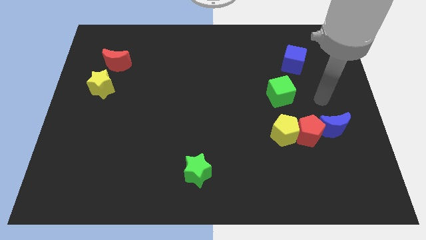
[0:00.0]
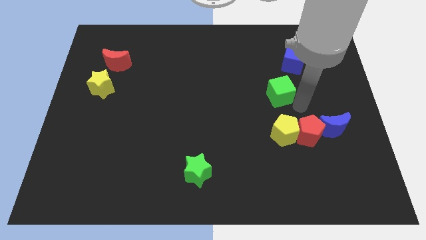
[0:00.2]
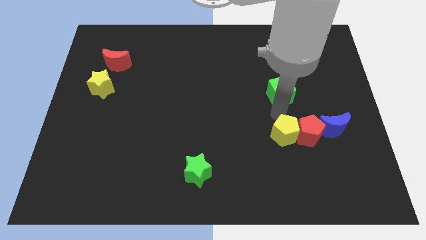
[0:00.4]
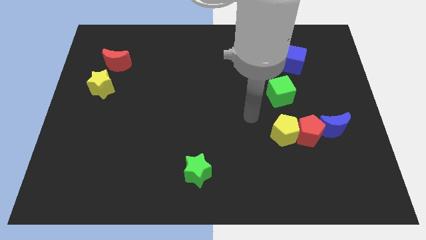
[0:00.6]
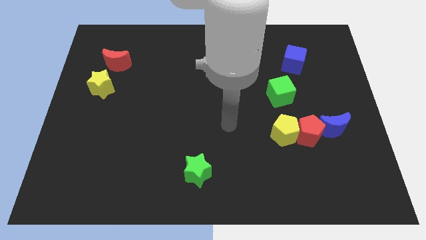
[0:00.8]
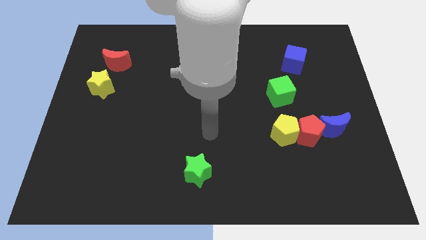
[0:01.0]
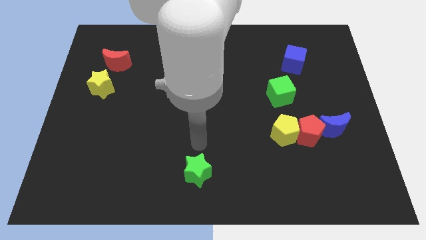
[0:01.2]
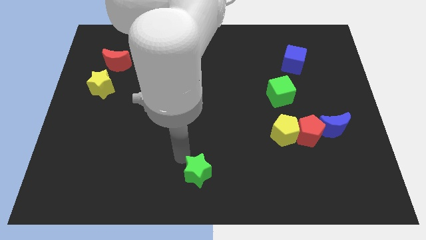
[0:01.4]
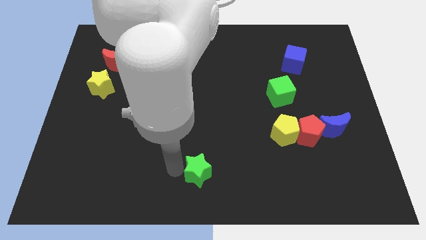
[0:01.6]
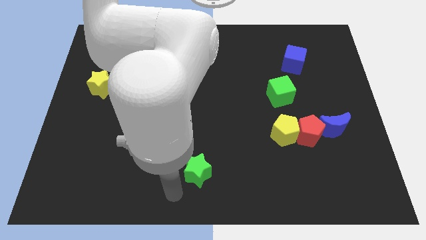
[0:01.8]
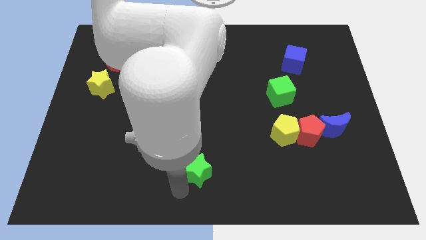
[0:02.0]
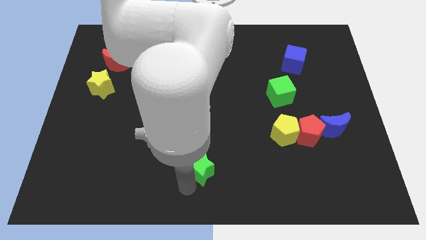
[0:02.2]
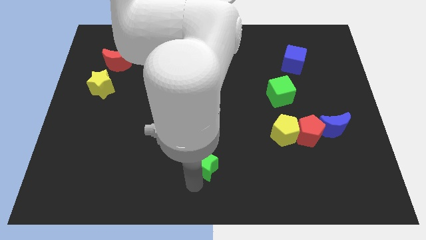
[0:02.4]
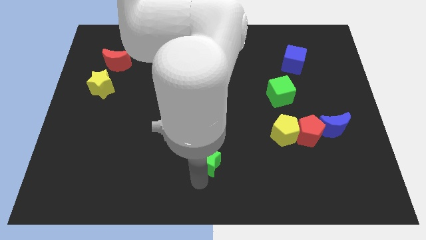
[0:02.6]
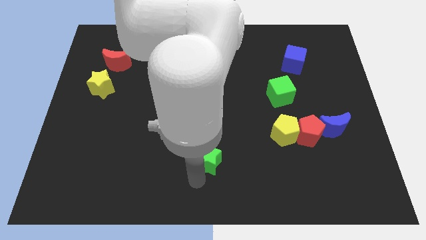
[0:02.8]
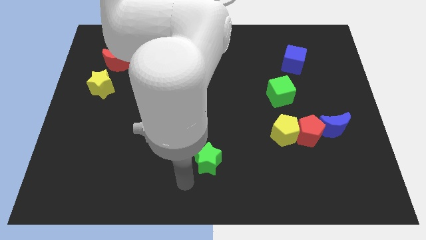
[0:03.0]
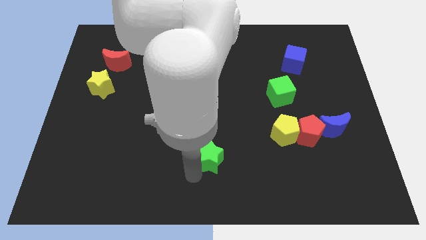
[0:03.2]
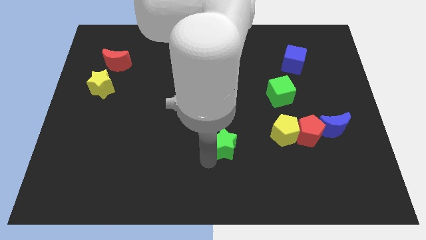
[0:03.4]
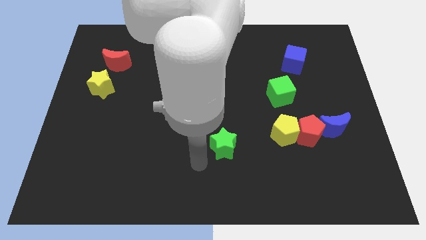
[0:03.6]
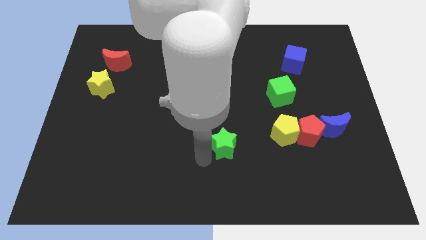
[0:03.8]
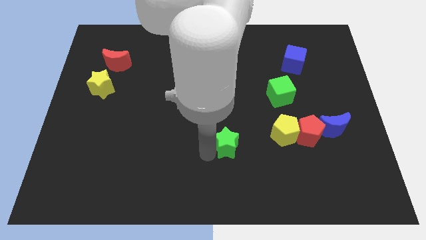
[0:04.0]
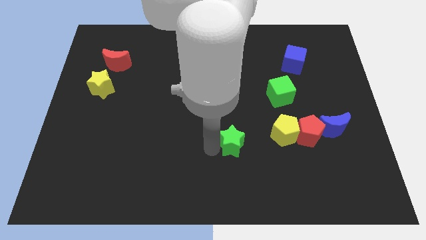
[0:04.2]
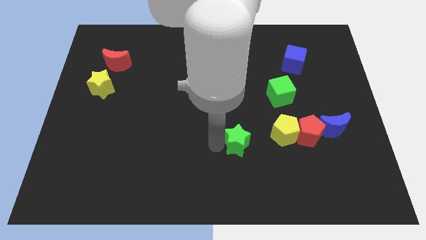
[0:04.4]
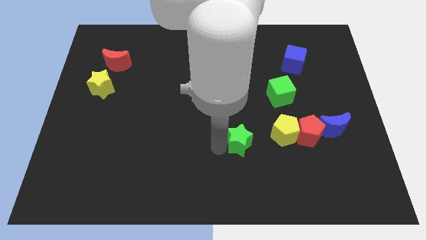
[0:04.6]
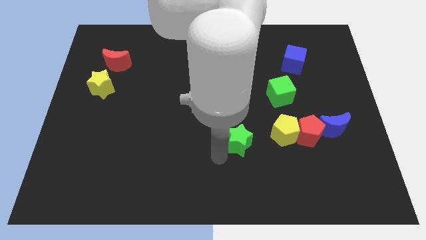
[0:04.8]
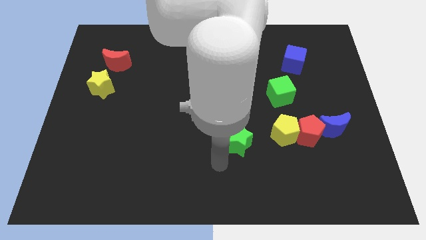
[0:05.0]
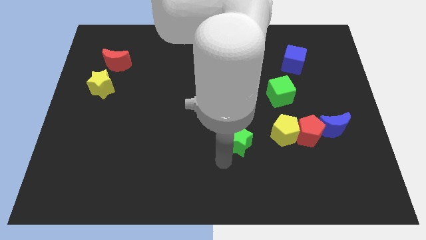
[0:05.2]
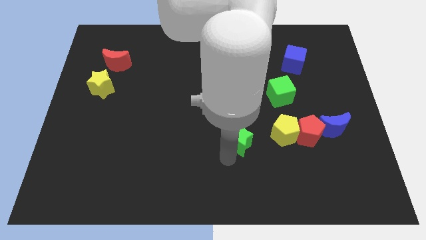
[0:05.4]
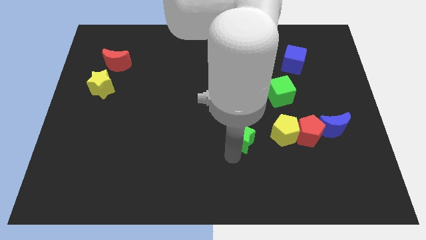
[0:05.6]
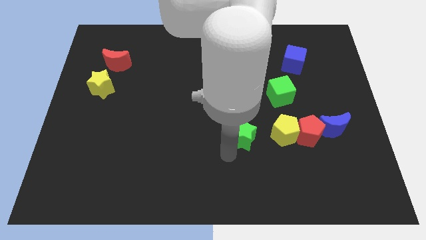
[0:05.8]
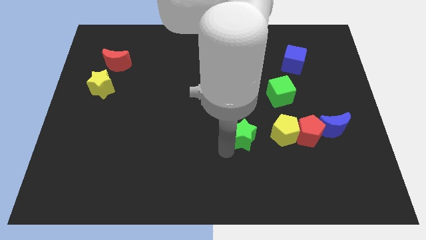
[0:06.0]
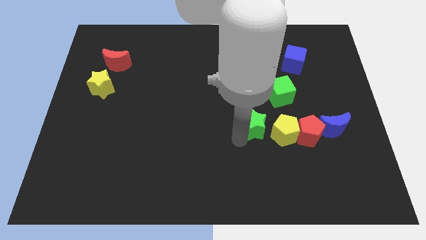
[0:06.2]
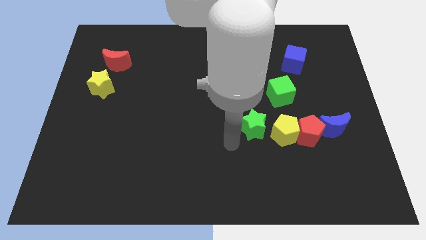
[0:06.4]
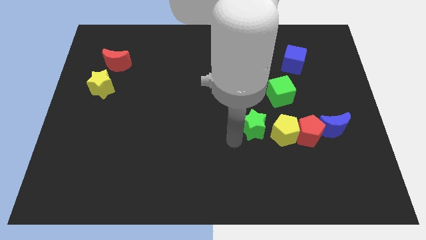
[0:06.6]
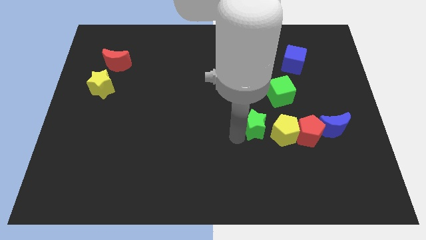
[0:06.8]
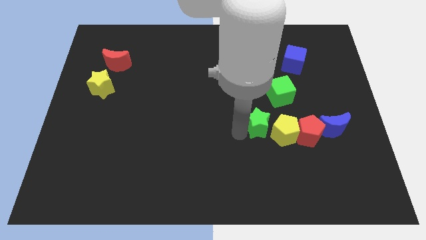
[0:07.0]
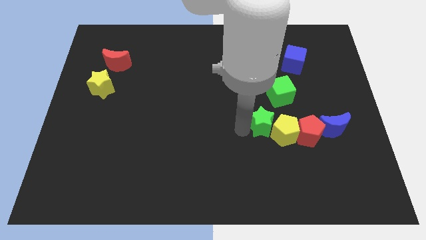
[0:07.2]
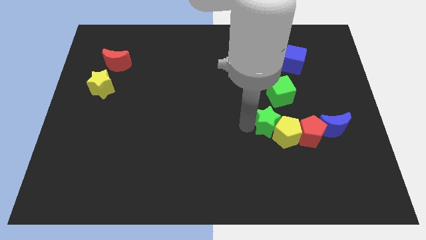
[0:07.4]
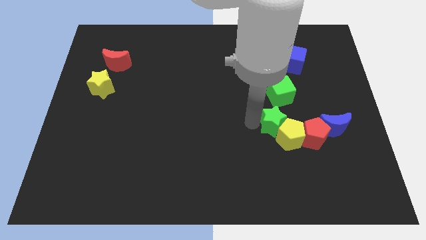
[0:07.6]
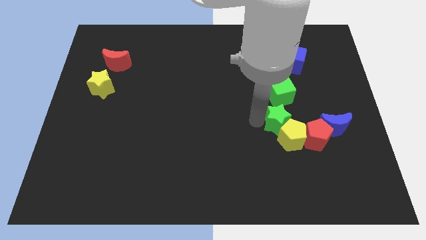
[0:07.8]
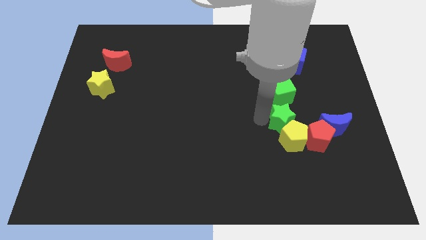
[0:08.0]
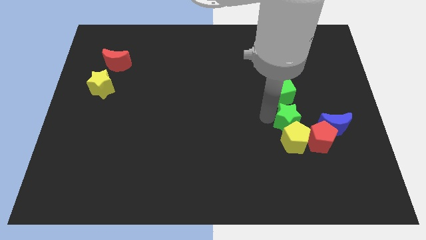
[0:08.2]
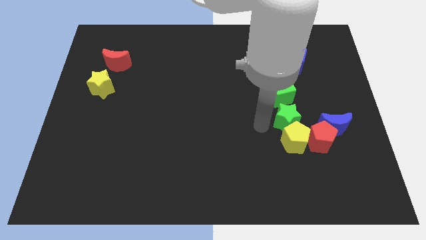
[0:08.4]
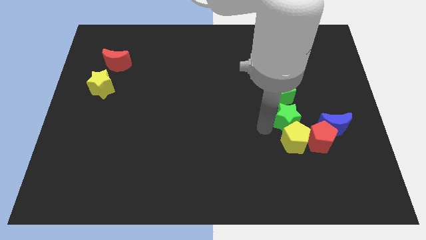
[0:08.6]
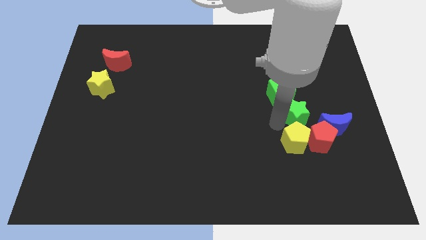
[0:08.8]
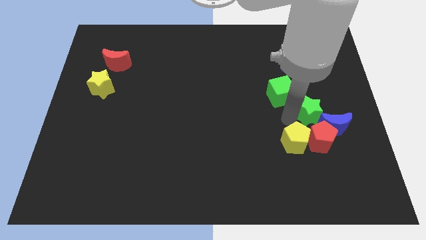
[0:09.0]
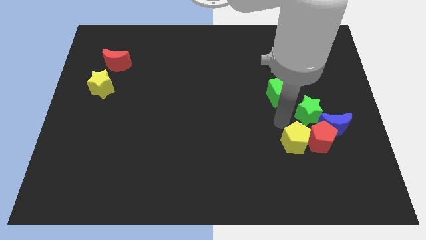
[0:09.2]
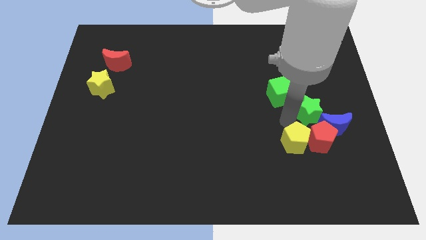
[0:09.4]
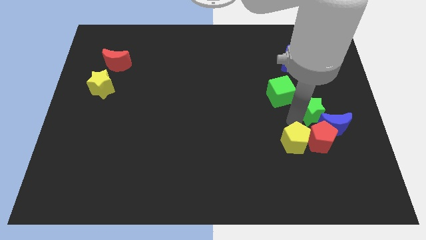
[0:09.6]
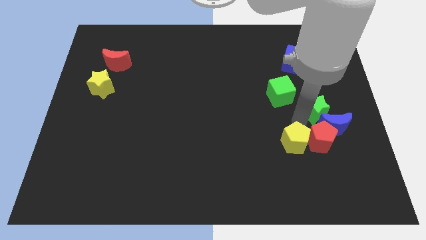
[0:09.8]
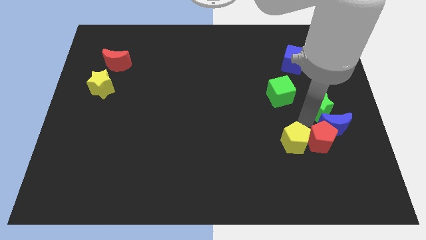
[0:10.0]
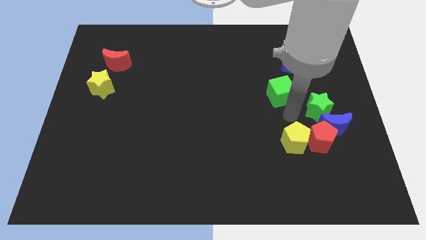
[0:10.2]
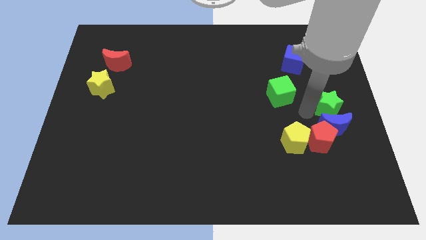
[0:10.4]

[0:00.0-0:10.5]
move the green star to the right side of the board

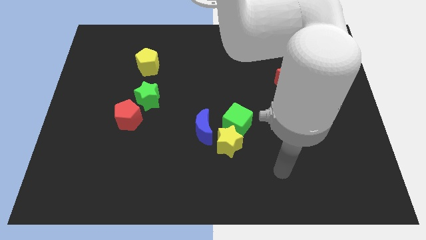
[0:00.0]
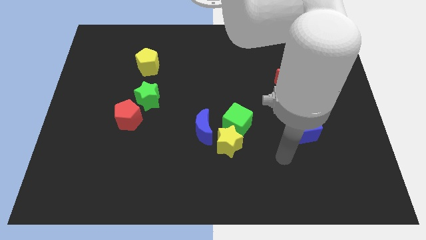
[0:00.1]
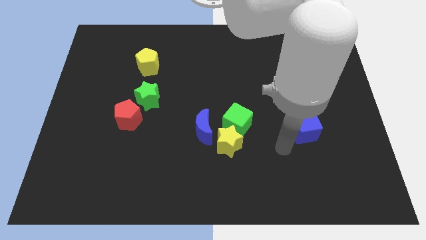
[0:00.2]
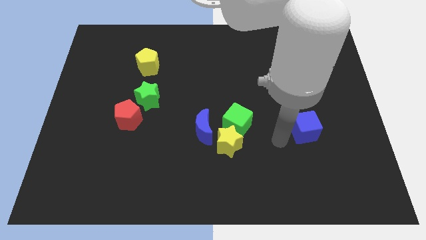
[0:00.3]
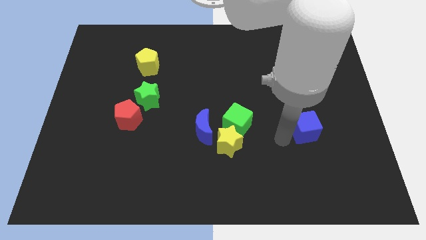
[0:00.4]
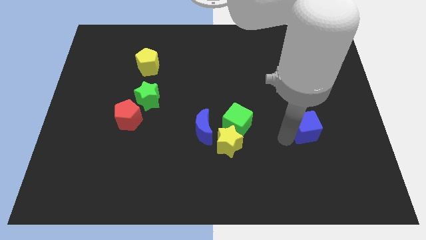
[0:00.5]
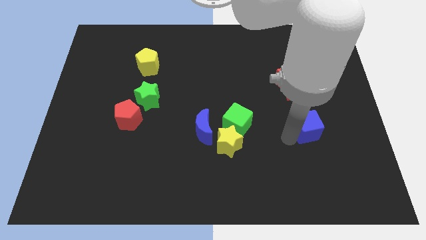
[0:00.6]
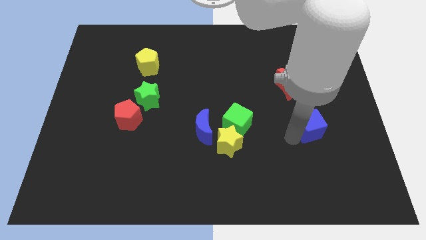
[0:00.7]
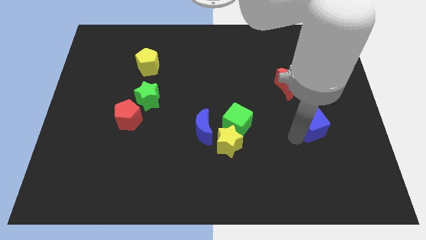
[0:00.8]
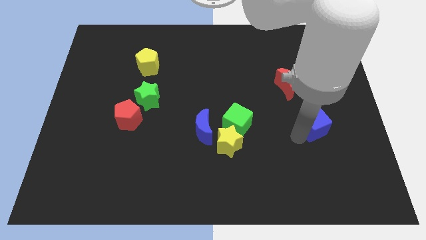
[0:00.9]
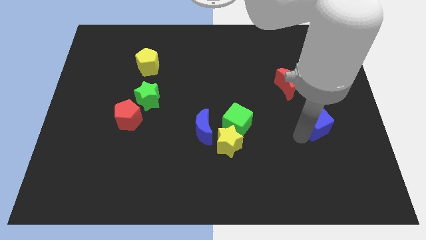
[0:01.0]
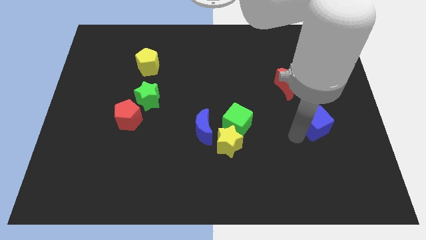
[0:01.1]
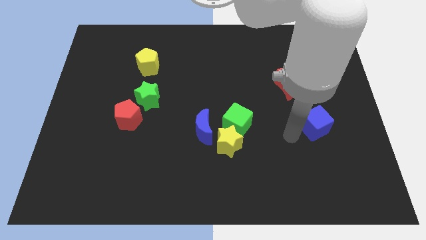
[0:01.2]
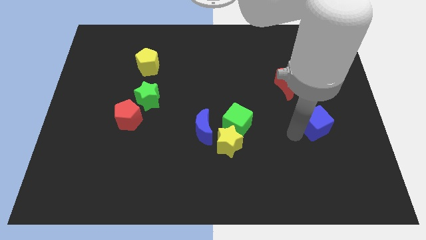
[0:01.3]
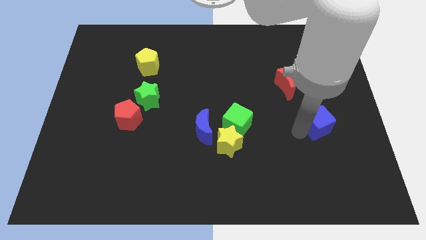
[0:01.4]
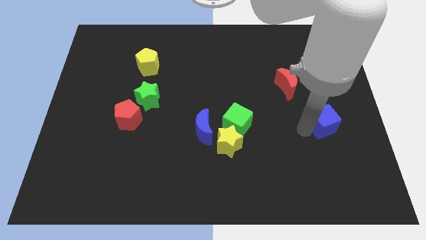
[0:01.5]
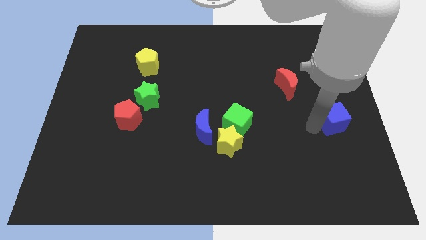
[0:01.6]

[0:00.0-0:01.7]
put the blue cube to the right side of the board

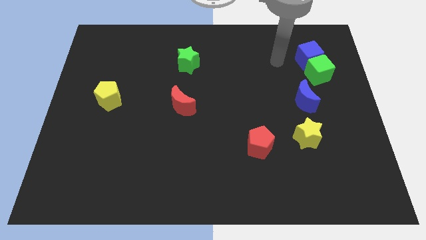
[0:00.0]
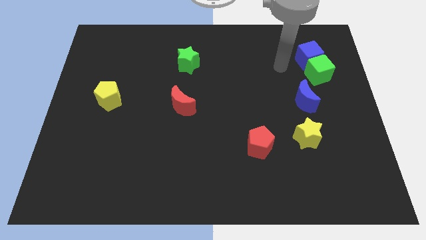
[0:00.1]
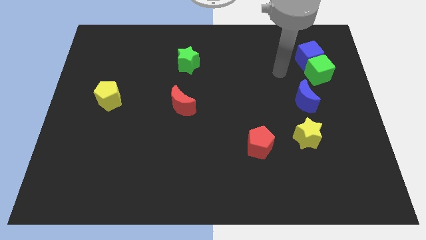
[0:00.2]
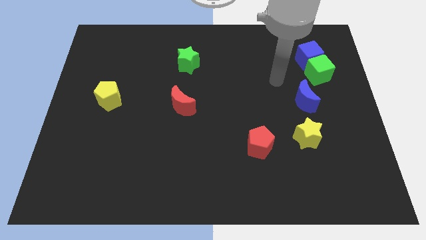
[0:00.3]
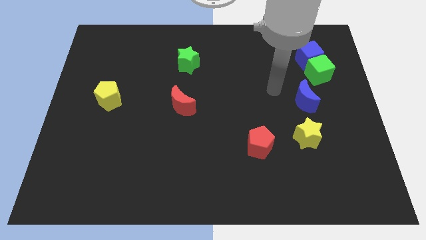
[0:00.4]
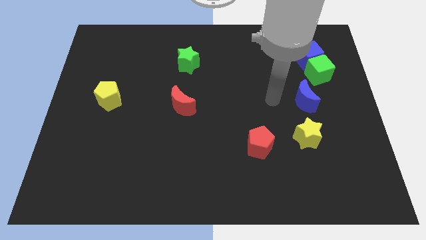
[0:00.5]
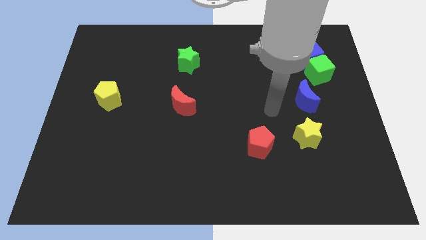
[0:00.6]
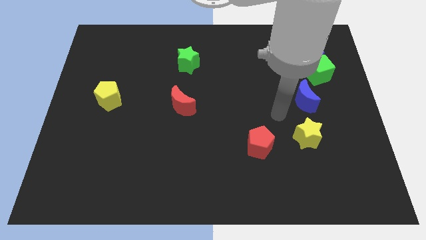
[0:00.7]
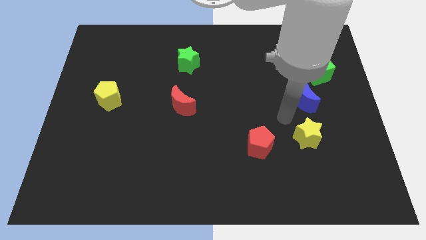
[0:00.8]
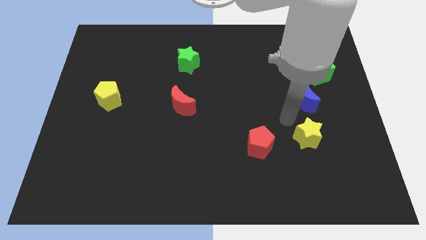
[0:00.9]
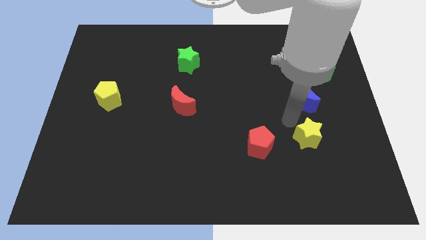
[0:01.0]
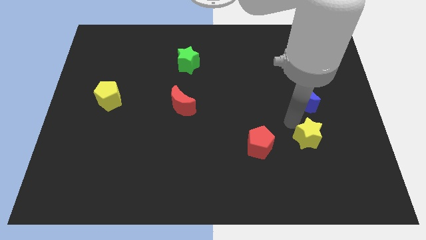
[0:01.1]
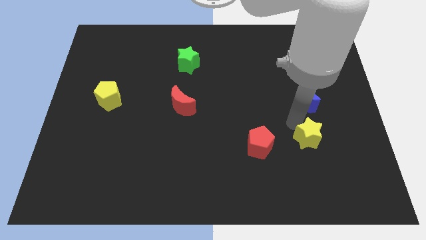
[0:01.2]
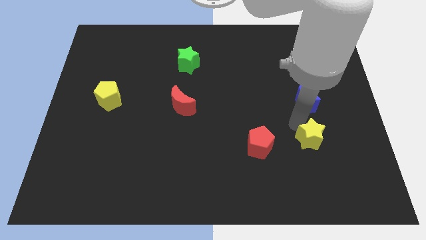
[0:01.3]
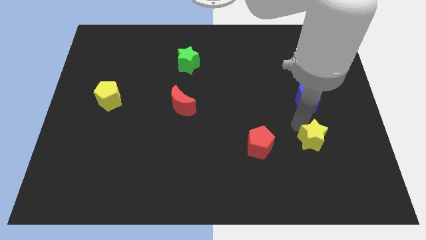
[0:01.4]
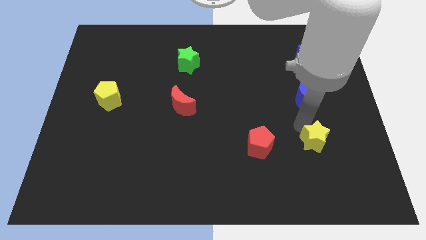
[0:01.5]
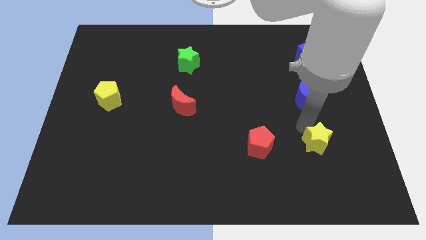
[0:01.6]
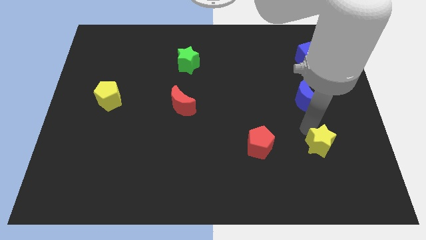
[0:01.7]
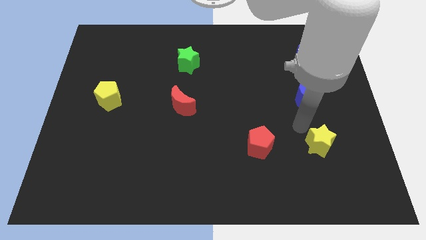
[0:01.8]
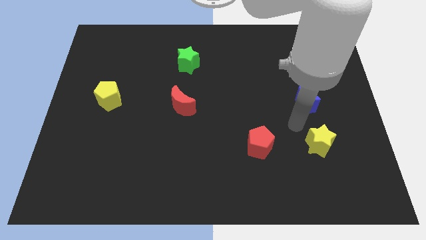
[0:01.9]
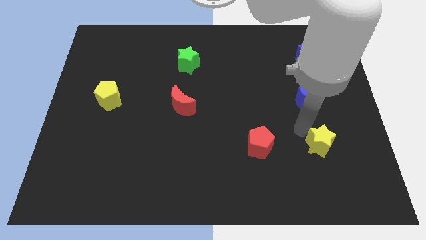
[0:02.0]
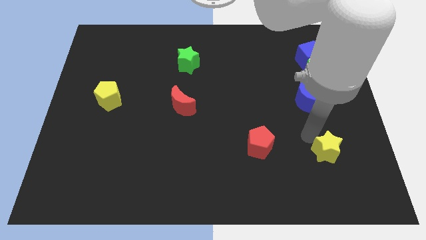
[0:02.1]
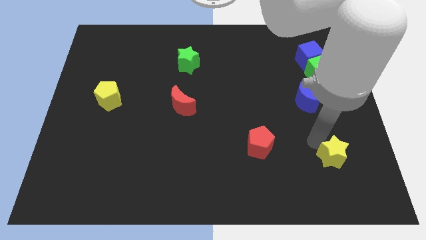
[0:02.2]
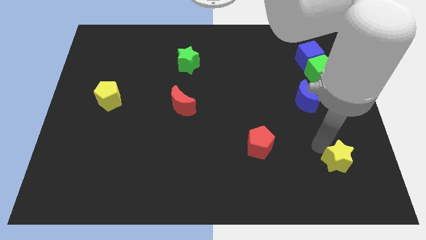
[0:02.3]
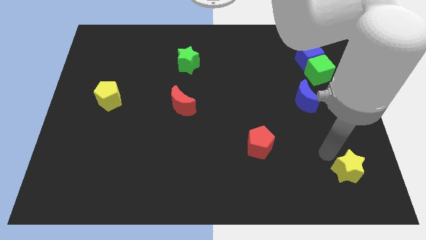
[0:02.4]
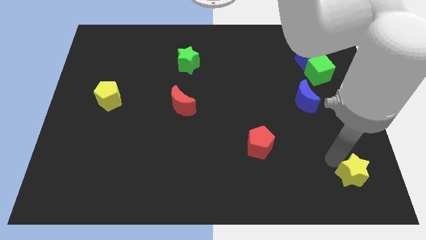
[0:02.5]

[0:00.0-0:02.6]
put the yellow star to the bottom right
